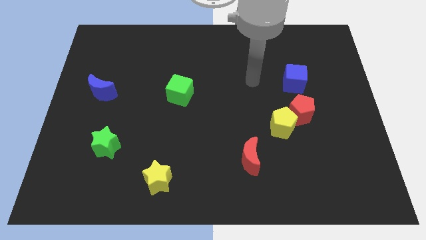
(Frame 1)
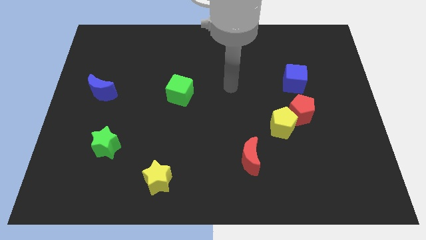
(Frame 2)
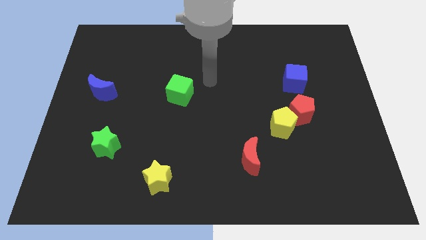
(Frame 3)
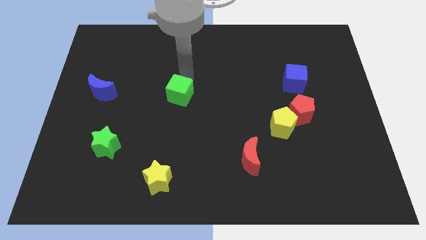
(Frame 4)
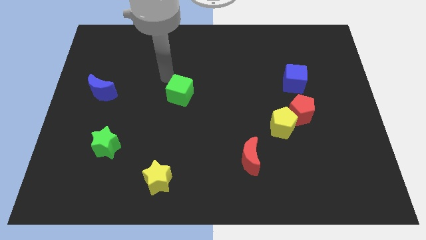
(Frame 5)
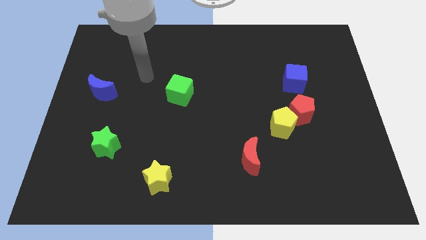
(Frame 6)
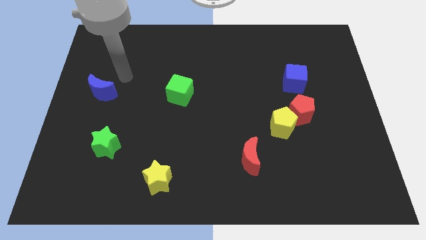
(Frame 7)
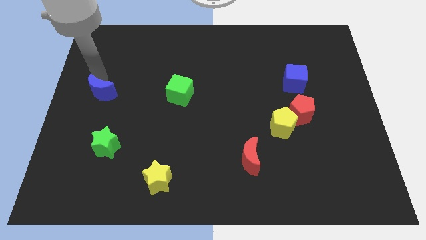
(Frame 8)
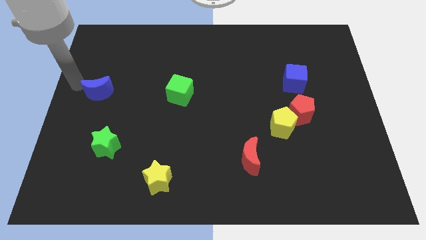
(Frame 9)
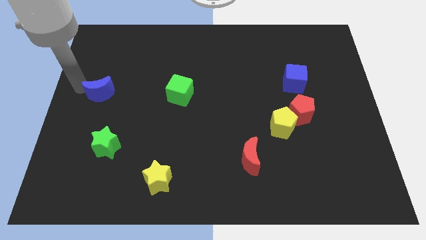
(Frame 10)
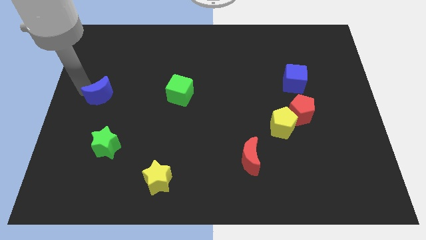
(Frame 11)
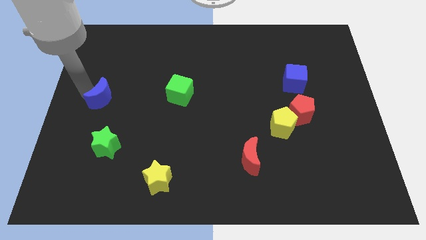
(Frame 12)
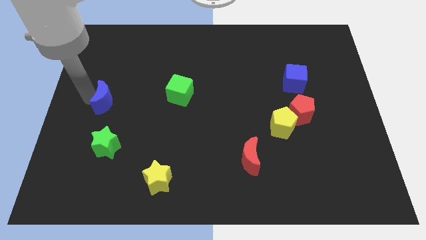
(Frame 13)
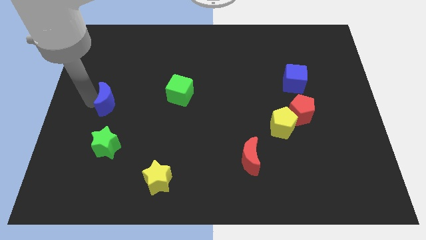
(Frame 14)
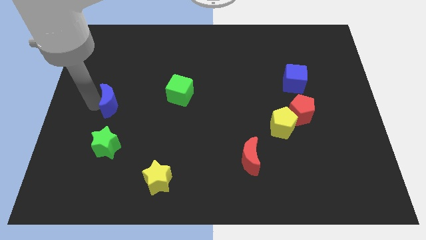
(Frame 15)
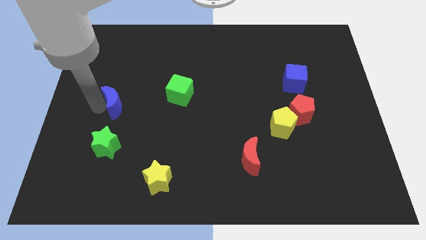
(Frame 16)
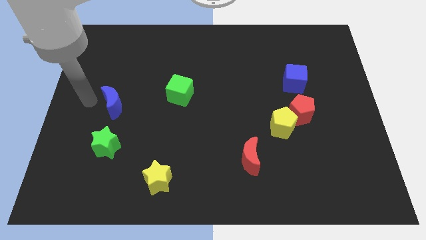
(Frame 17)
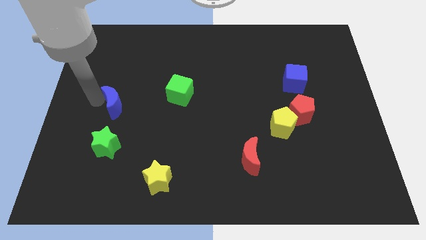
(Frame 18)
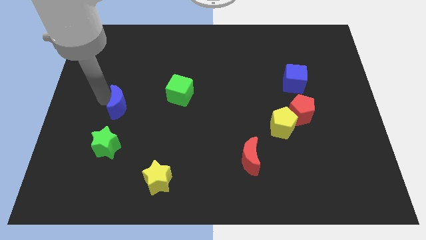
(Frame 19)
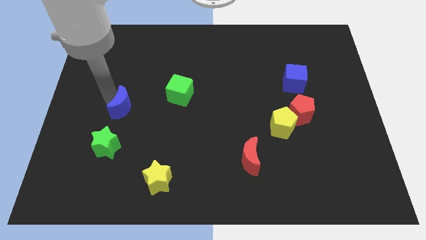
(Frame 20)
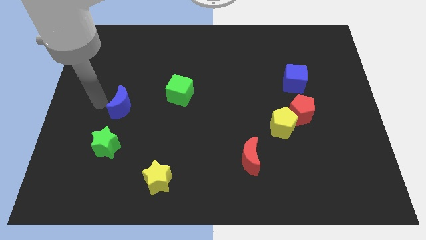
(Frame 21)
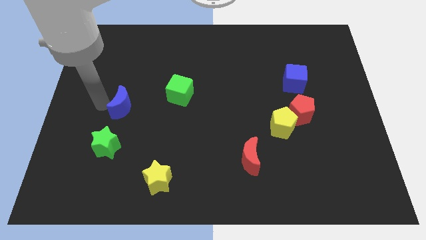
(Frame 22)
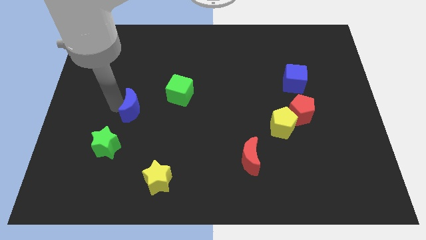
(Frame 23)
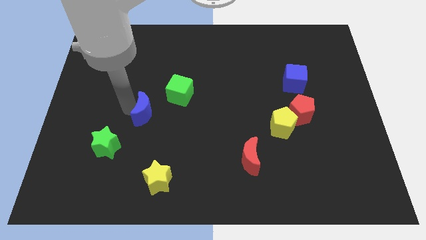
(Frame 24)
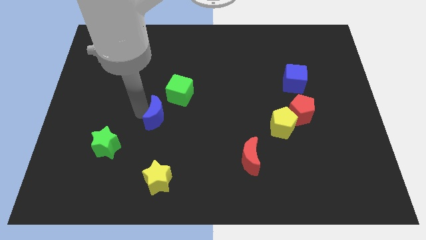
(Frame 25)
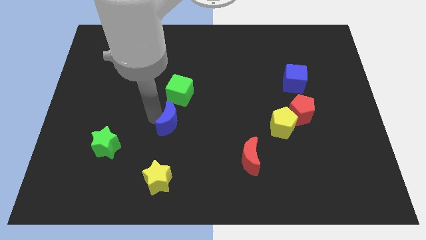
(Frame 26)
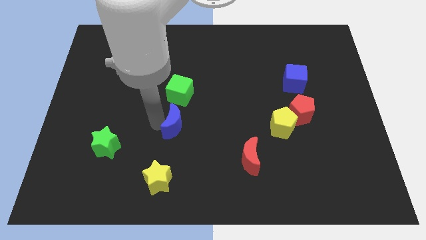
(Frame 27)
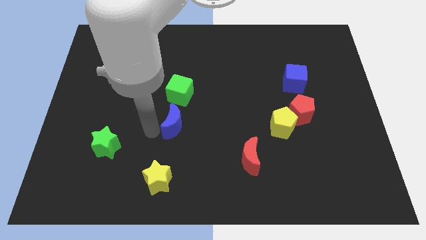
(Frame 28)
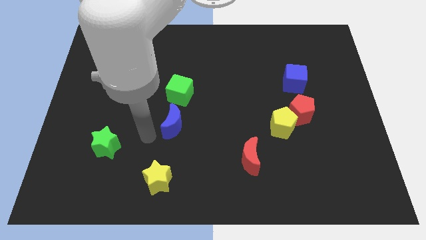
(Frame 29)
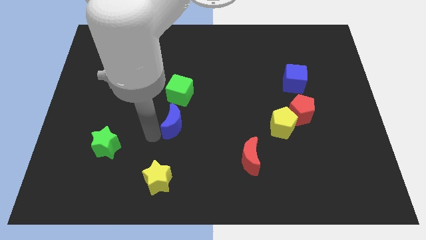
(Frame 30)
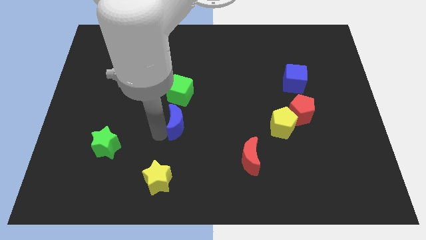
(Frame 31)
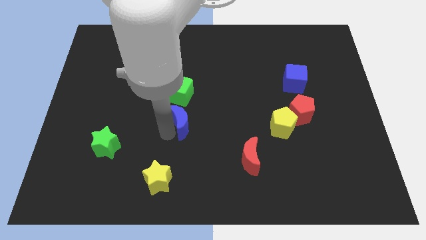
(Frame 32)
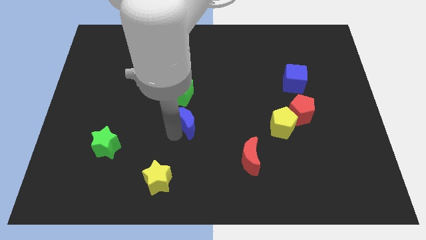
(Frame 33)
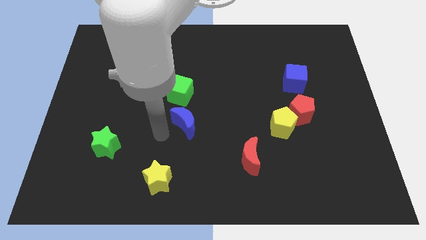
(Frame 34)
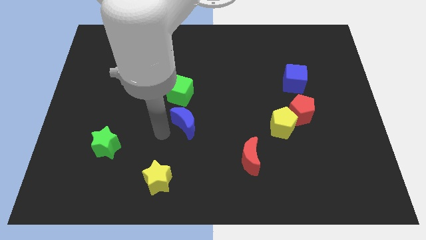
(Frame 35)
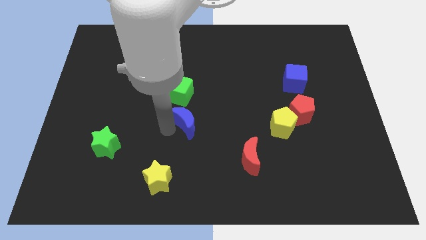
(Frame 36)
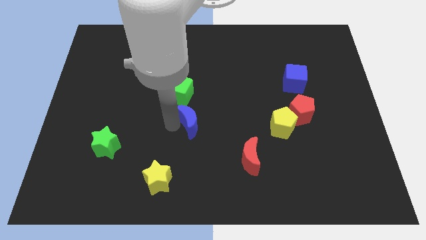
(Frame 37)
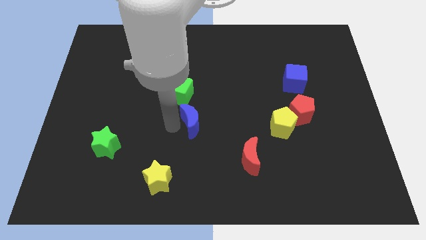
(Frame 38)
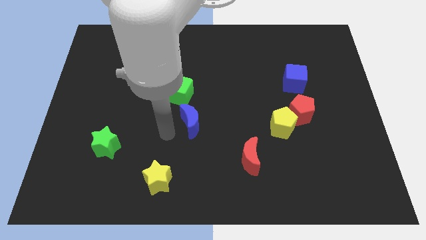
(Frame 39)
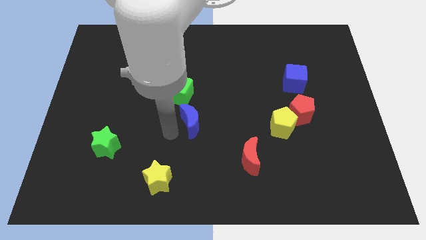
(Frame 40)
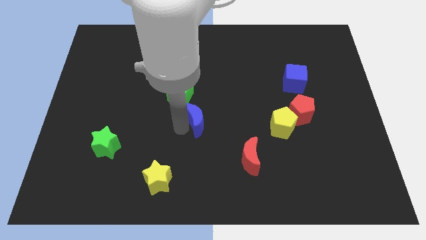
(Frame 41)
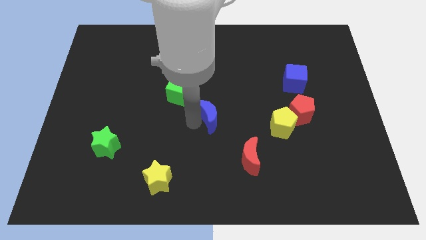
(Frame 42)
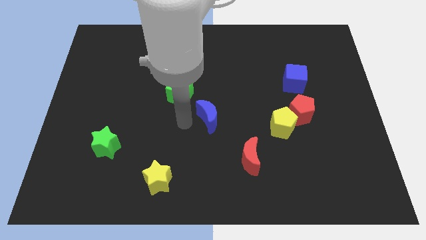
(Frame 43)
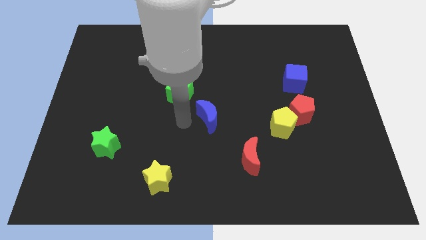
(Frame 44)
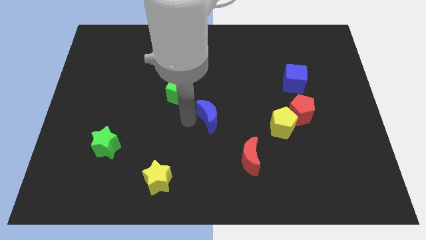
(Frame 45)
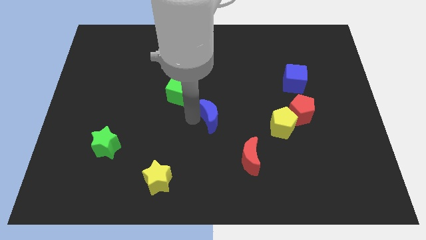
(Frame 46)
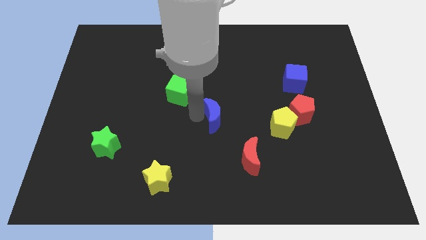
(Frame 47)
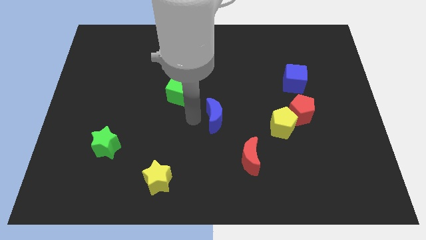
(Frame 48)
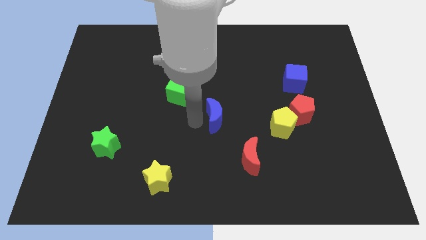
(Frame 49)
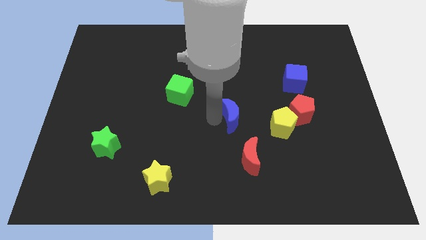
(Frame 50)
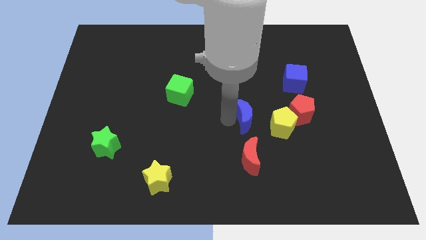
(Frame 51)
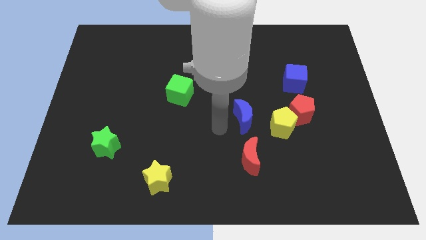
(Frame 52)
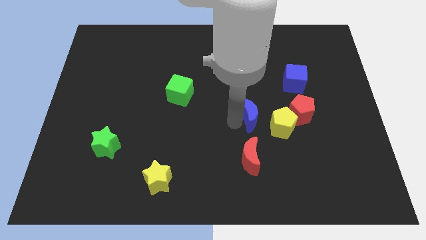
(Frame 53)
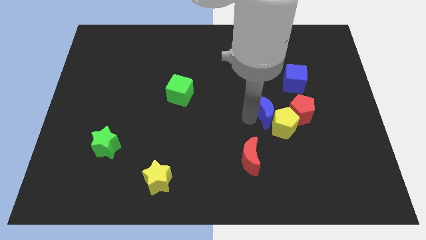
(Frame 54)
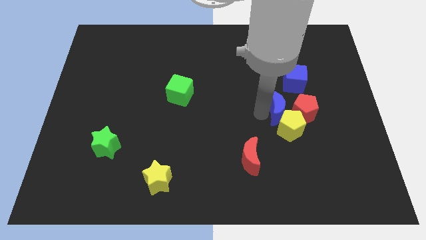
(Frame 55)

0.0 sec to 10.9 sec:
push the blue moon to the red pentagon

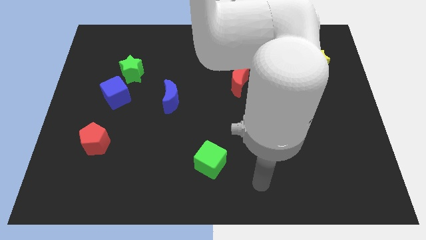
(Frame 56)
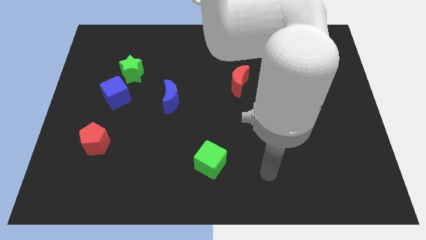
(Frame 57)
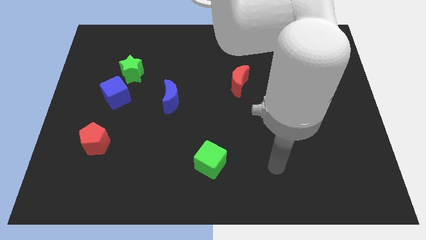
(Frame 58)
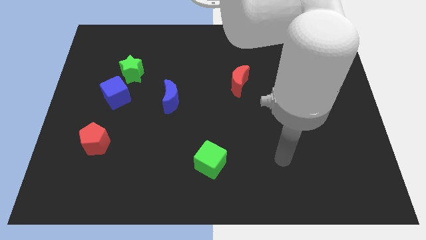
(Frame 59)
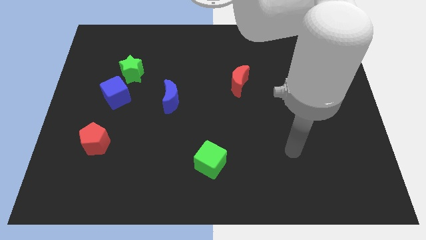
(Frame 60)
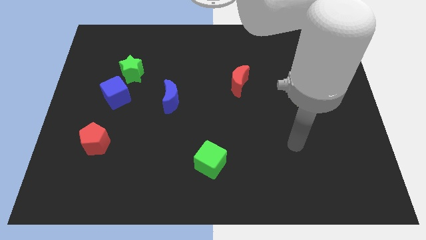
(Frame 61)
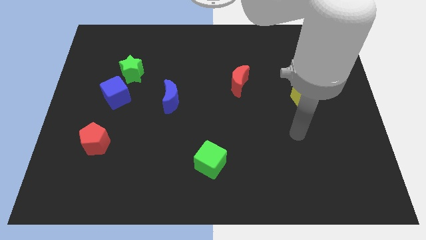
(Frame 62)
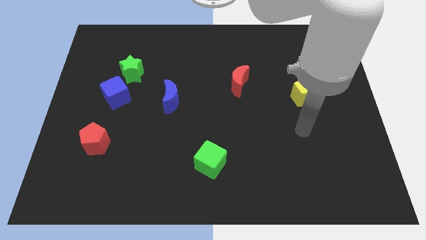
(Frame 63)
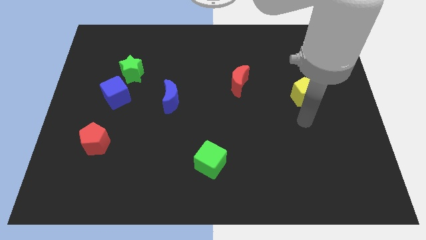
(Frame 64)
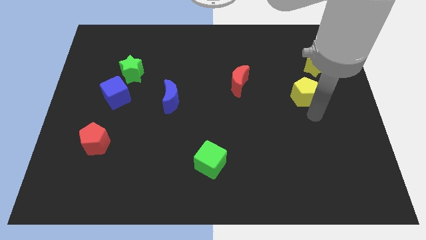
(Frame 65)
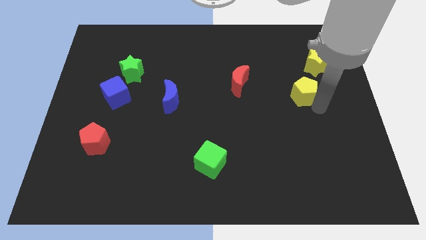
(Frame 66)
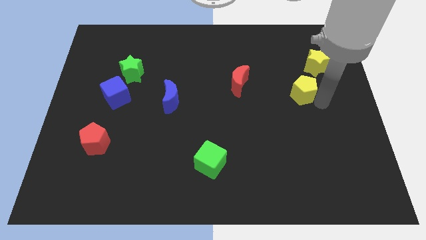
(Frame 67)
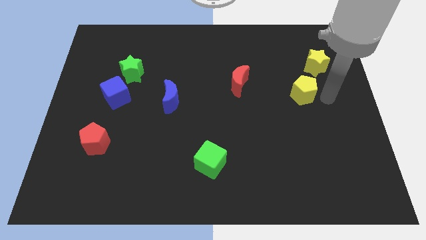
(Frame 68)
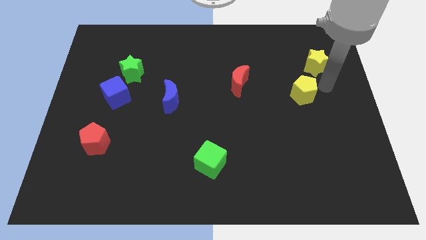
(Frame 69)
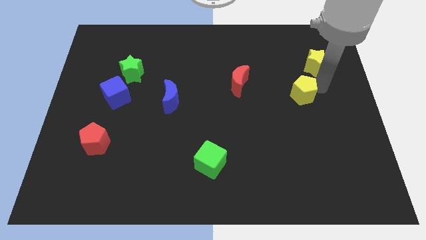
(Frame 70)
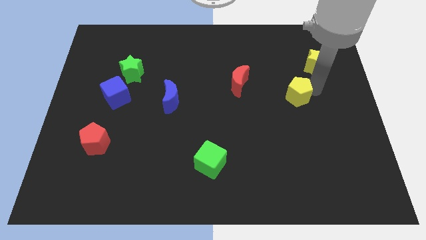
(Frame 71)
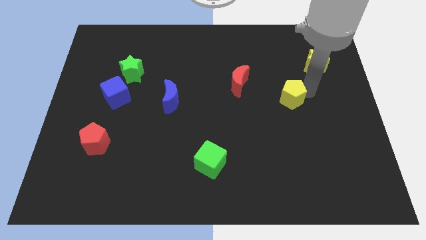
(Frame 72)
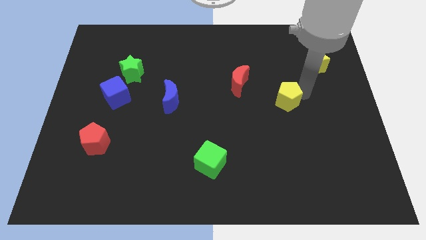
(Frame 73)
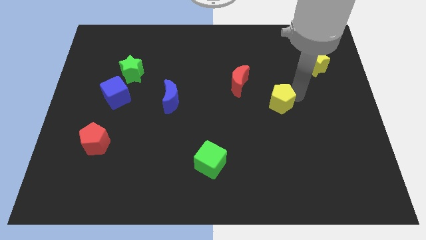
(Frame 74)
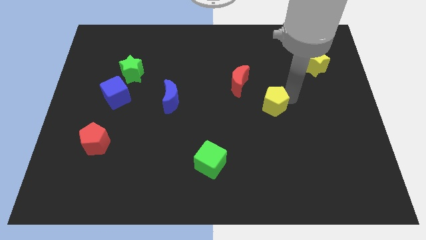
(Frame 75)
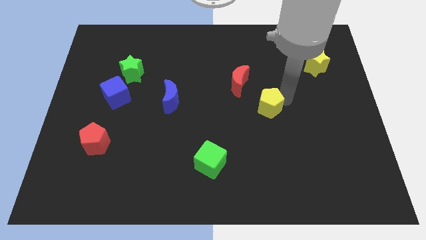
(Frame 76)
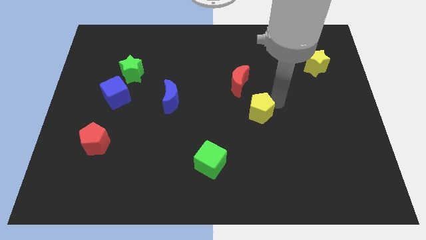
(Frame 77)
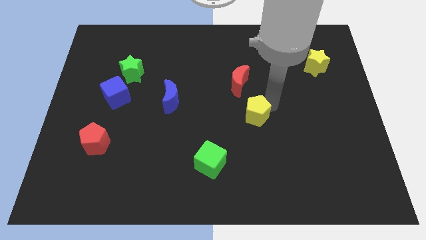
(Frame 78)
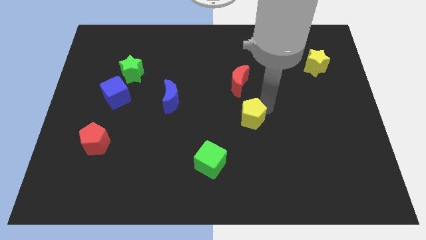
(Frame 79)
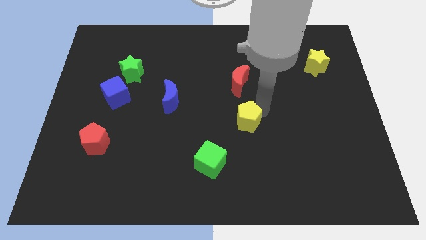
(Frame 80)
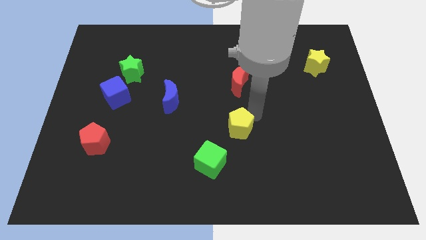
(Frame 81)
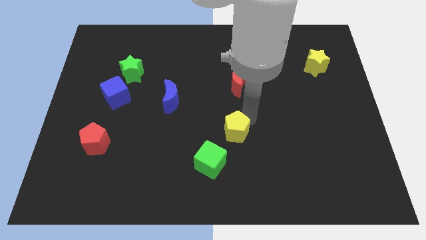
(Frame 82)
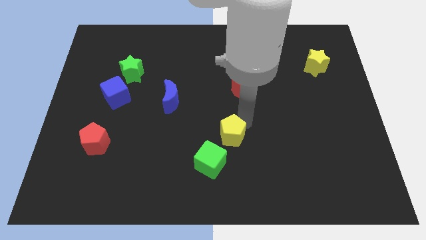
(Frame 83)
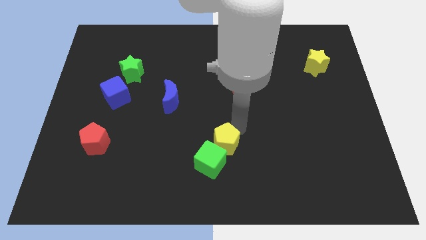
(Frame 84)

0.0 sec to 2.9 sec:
put the yellow pentagon next to the green cube
